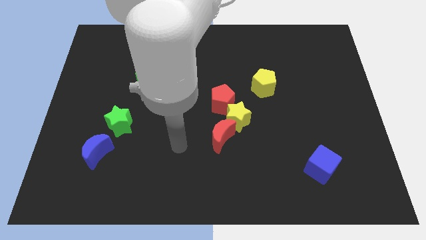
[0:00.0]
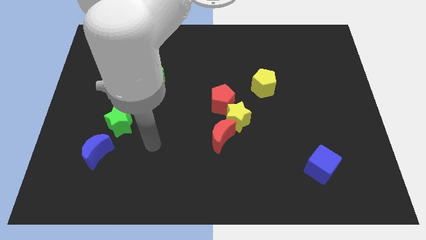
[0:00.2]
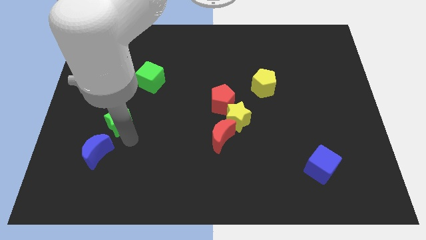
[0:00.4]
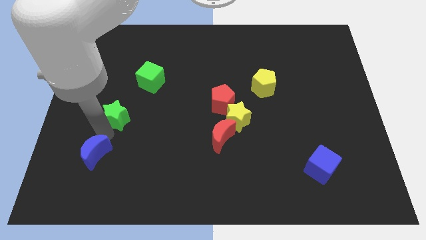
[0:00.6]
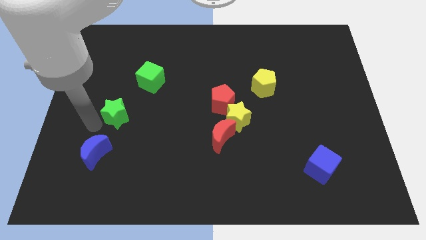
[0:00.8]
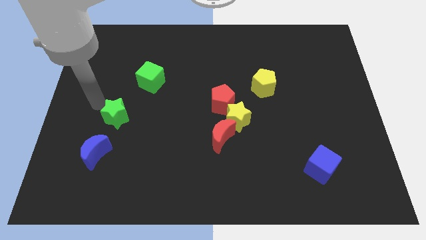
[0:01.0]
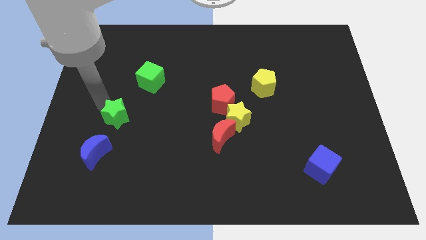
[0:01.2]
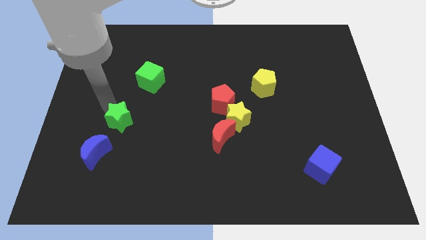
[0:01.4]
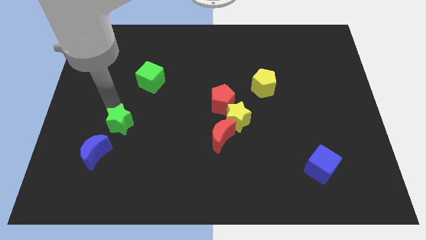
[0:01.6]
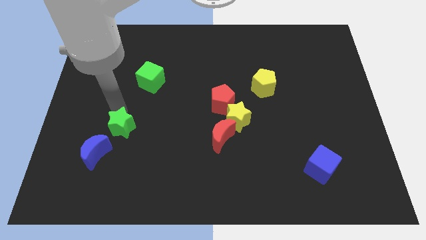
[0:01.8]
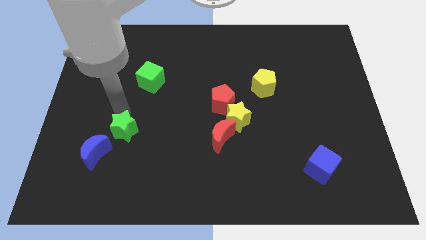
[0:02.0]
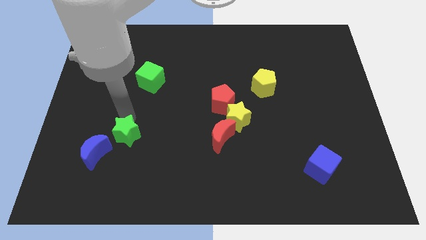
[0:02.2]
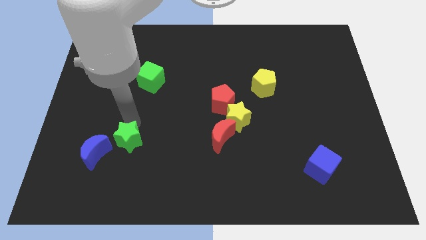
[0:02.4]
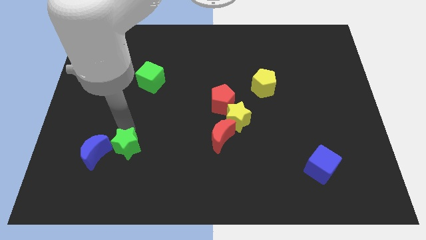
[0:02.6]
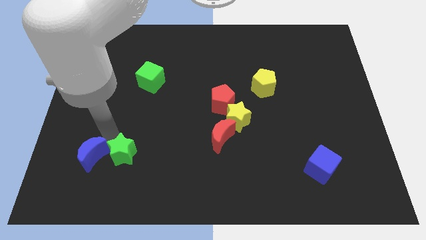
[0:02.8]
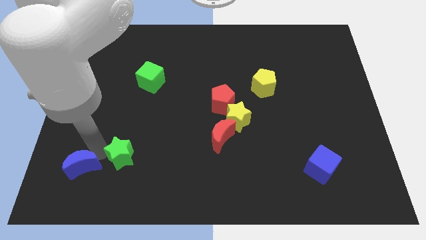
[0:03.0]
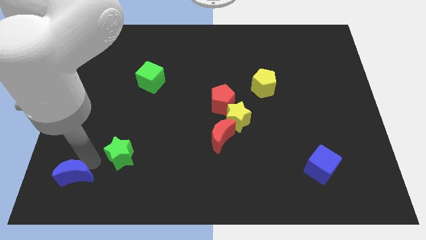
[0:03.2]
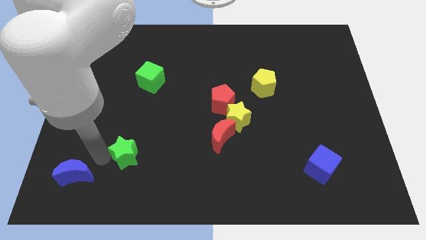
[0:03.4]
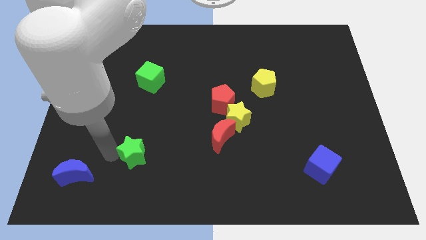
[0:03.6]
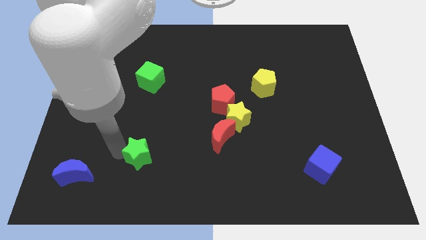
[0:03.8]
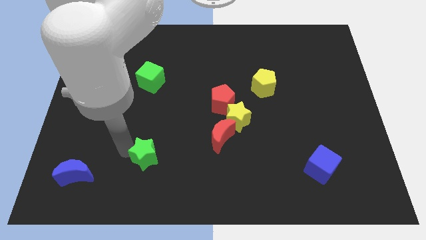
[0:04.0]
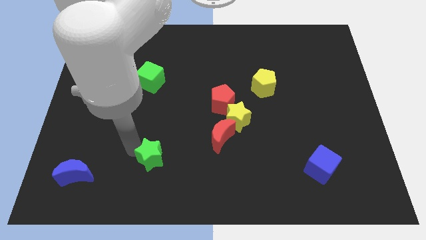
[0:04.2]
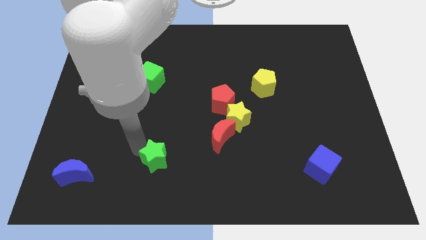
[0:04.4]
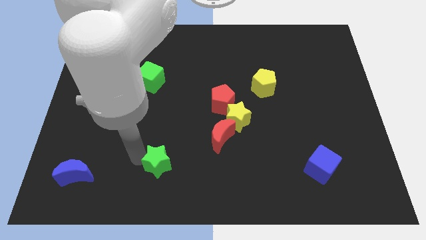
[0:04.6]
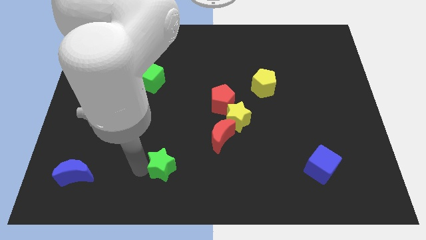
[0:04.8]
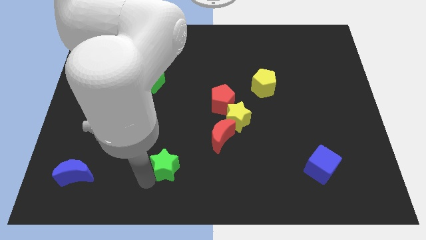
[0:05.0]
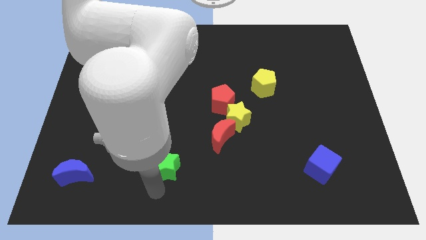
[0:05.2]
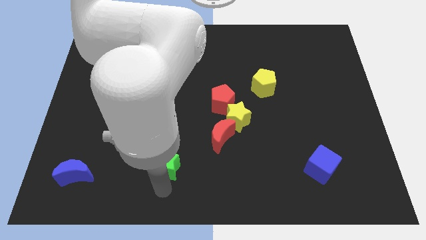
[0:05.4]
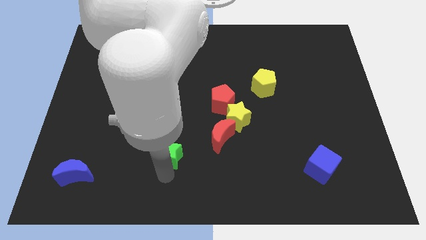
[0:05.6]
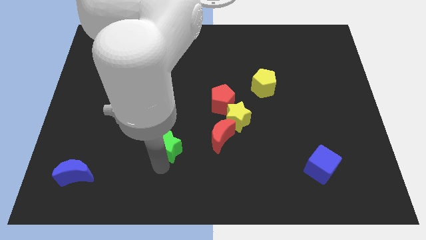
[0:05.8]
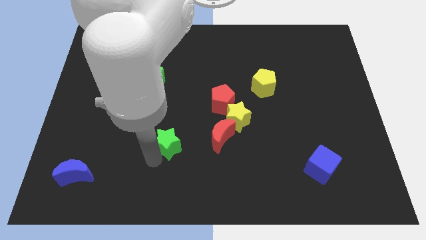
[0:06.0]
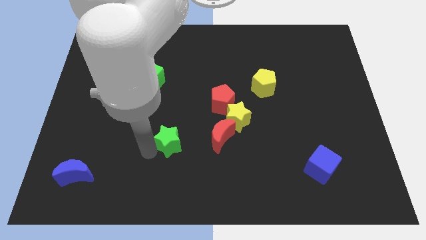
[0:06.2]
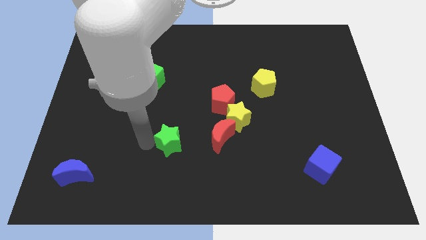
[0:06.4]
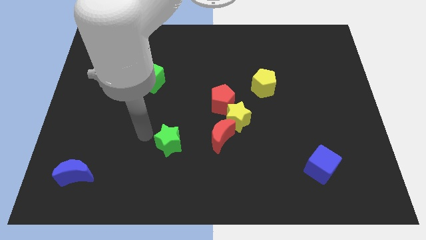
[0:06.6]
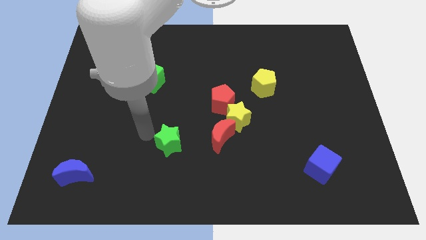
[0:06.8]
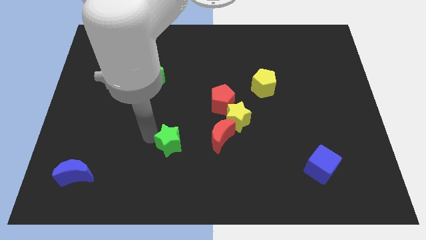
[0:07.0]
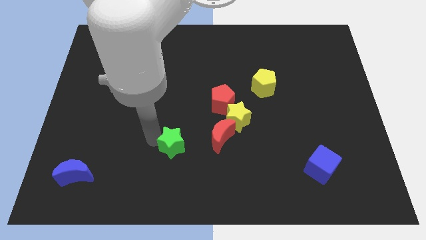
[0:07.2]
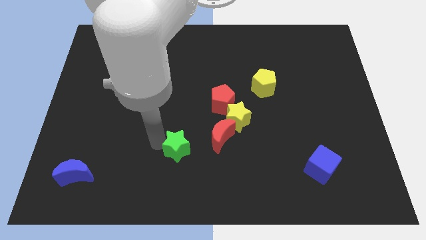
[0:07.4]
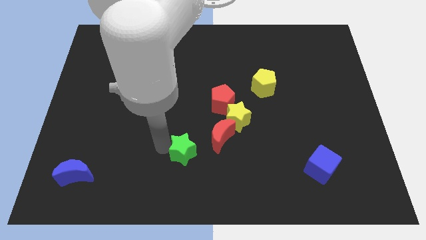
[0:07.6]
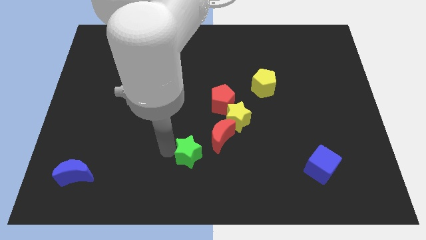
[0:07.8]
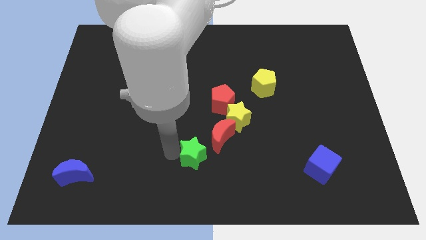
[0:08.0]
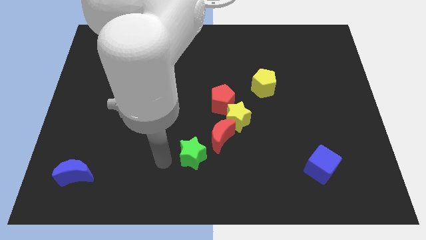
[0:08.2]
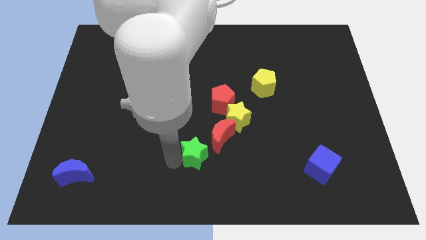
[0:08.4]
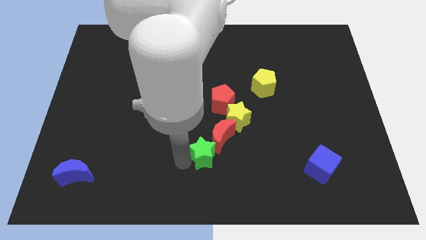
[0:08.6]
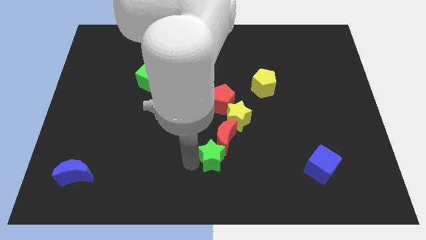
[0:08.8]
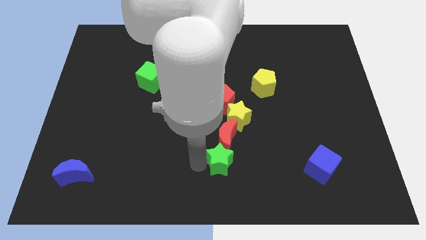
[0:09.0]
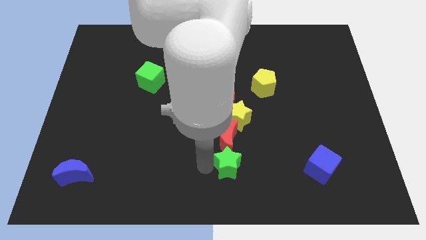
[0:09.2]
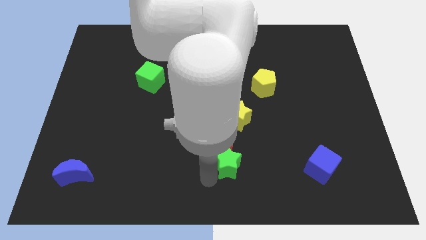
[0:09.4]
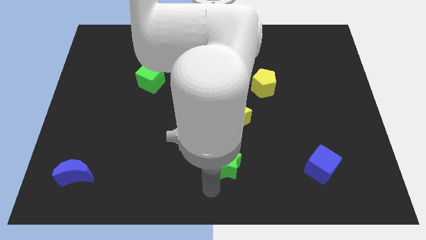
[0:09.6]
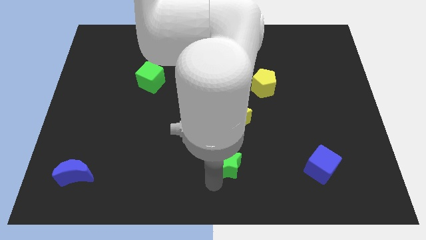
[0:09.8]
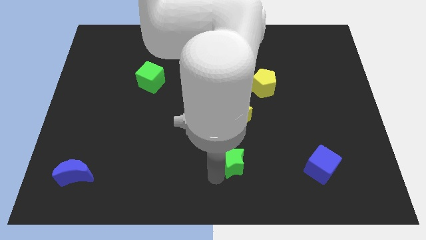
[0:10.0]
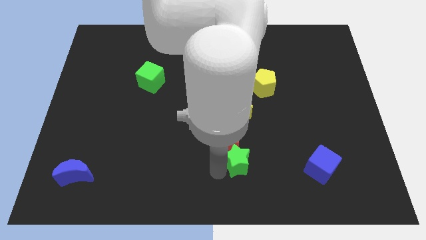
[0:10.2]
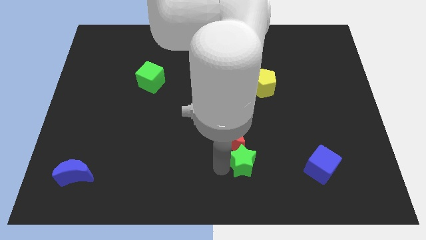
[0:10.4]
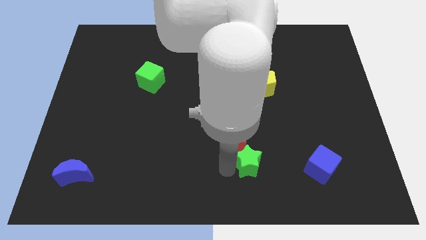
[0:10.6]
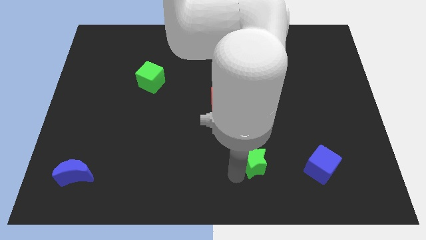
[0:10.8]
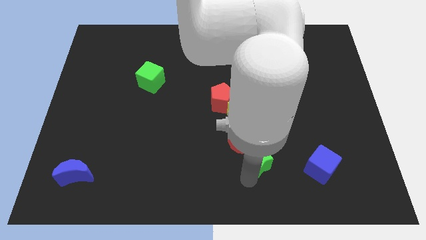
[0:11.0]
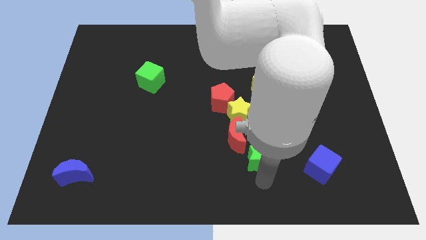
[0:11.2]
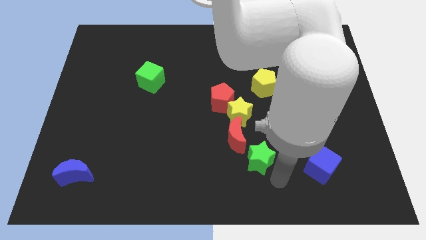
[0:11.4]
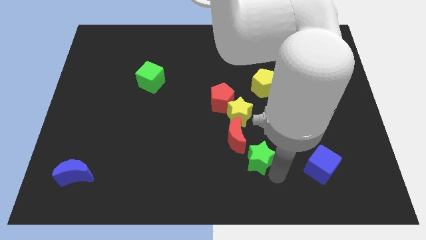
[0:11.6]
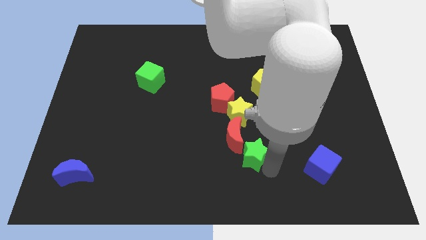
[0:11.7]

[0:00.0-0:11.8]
put the green star just right of the red moon

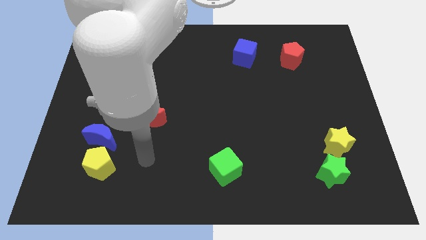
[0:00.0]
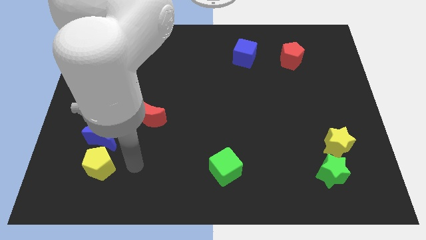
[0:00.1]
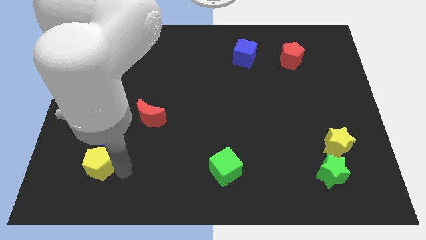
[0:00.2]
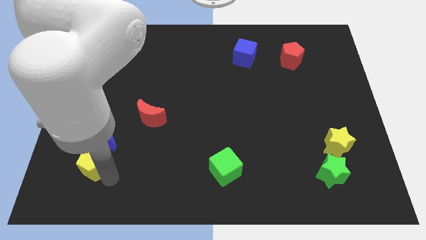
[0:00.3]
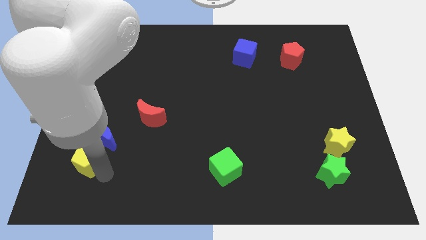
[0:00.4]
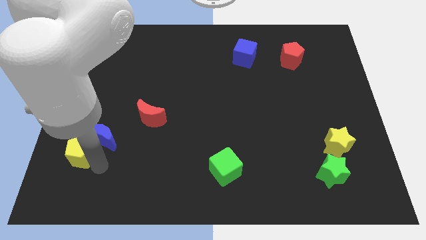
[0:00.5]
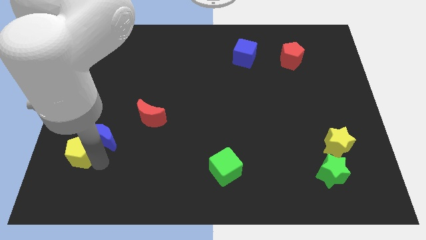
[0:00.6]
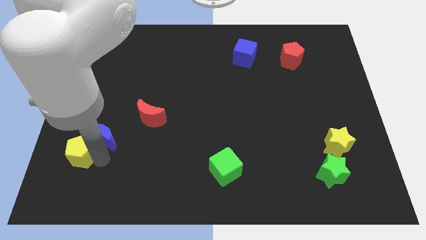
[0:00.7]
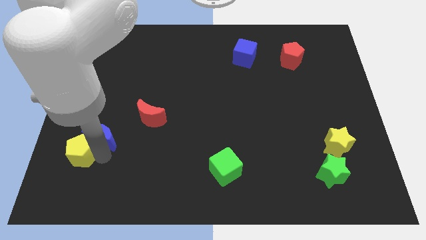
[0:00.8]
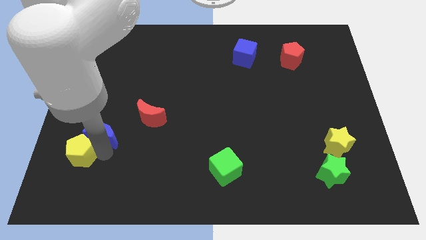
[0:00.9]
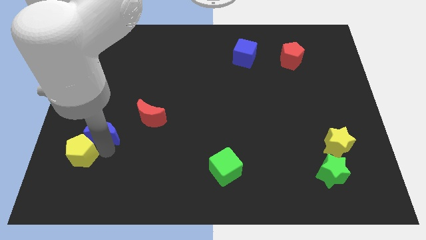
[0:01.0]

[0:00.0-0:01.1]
put the blue moon to the left side of the red moon

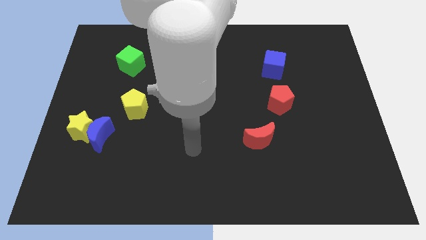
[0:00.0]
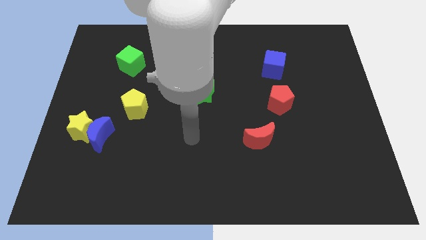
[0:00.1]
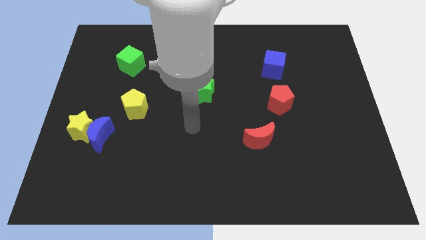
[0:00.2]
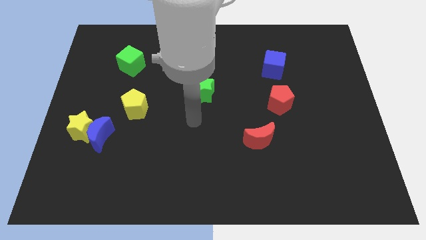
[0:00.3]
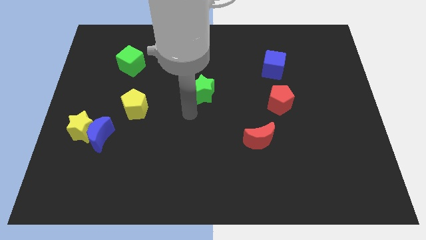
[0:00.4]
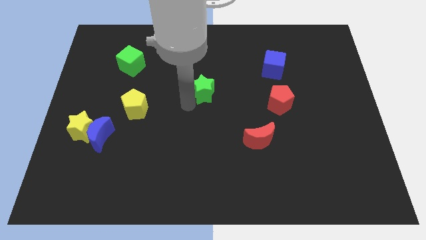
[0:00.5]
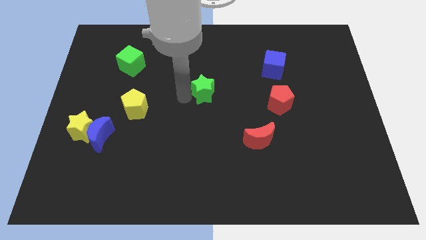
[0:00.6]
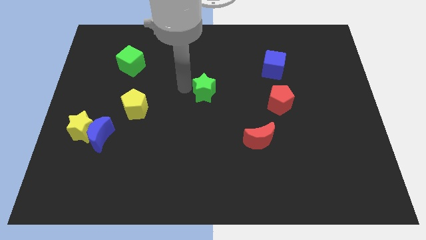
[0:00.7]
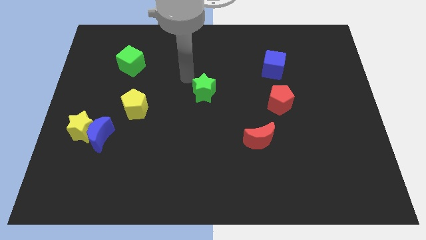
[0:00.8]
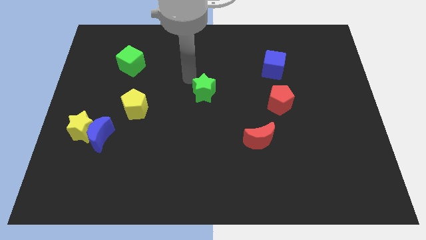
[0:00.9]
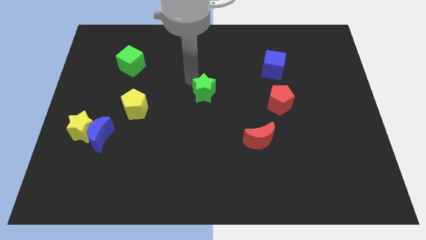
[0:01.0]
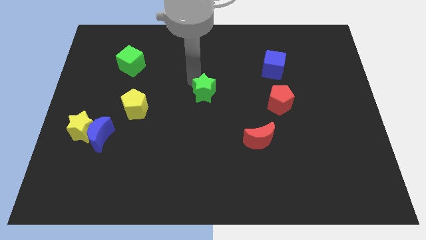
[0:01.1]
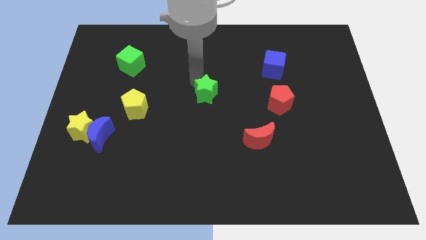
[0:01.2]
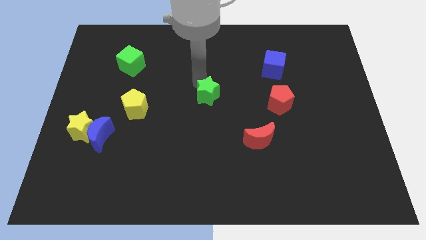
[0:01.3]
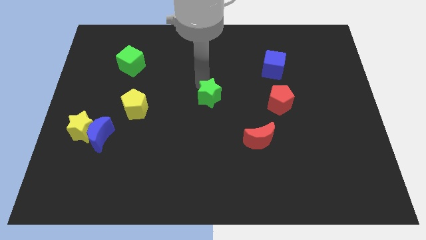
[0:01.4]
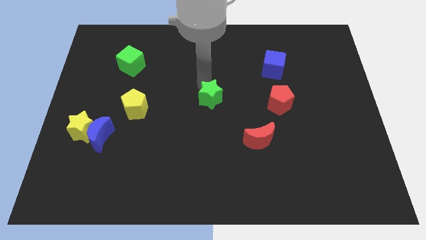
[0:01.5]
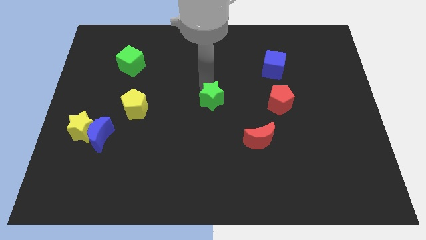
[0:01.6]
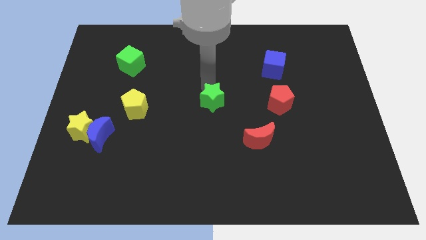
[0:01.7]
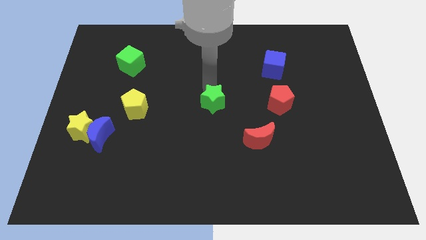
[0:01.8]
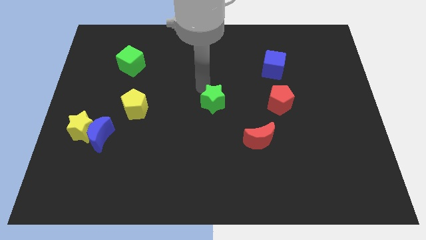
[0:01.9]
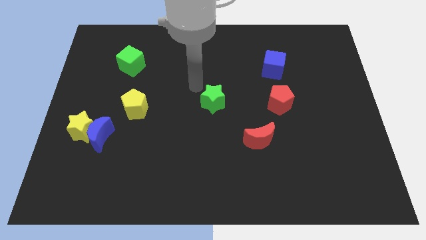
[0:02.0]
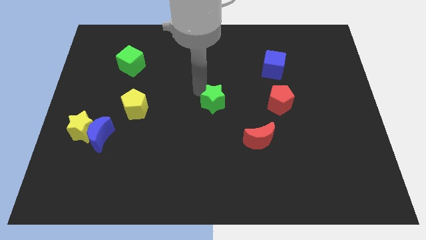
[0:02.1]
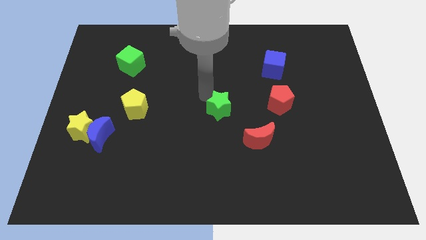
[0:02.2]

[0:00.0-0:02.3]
push the green star diagonally up and to the left of the red moon
